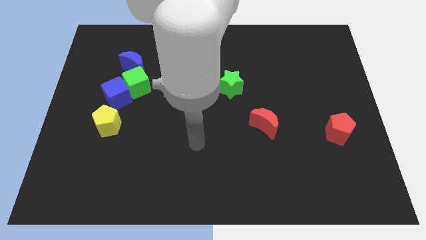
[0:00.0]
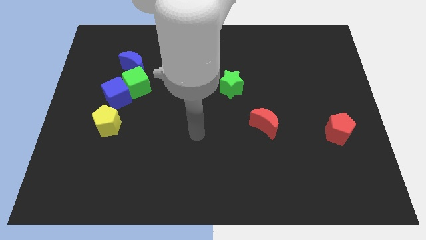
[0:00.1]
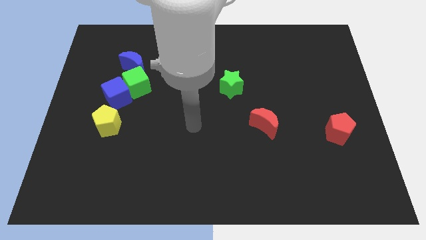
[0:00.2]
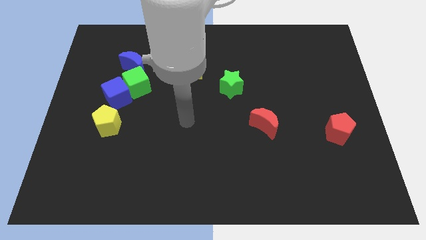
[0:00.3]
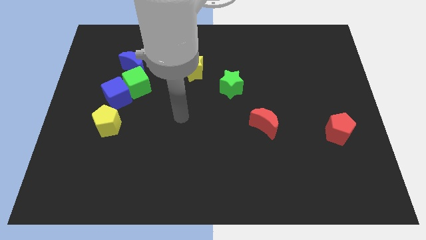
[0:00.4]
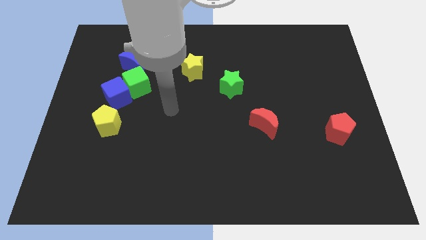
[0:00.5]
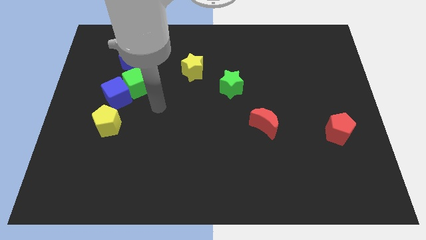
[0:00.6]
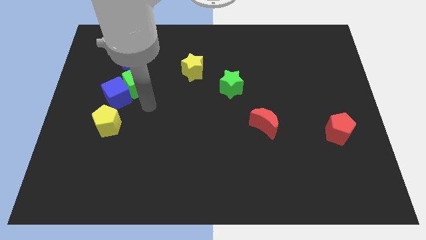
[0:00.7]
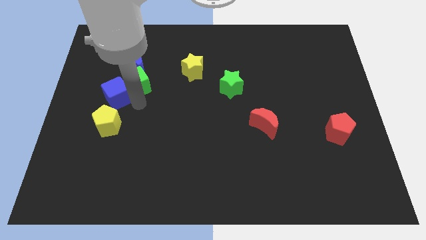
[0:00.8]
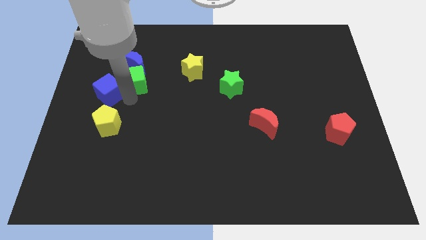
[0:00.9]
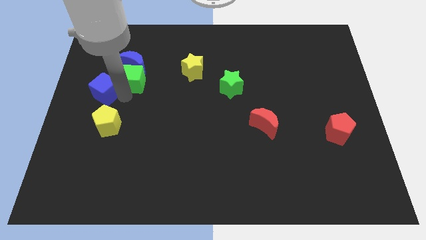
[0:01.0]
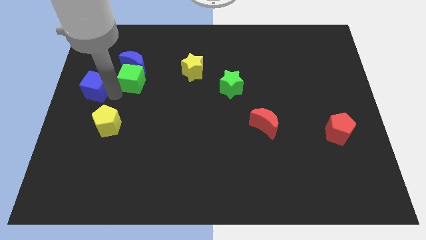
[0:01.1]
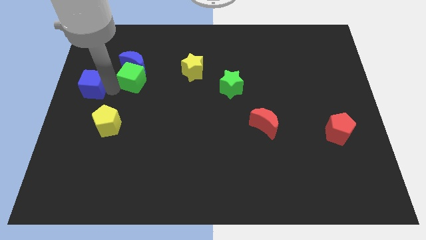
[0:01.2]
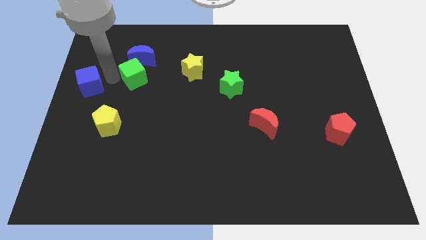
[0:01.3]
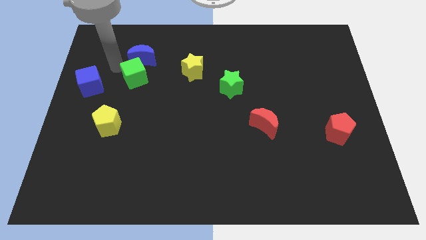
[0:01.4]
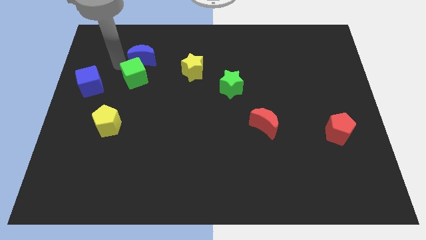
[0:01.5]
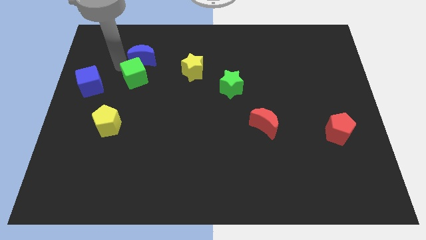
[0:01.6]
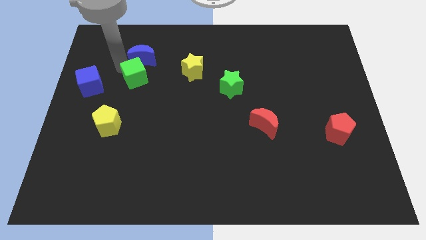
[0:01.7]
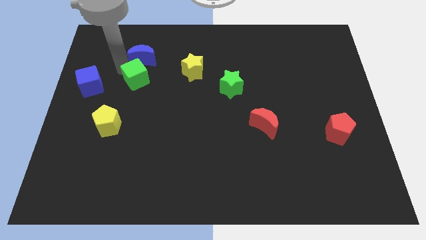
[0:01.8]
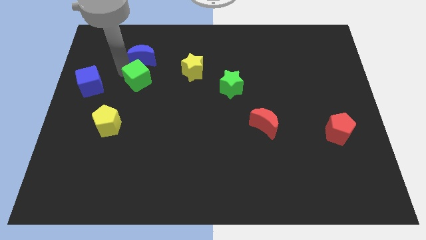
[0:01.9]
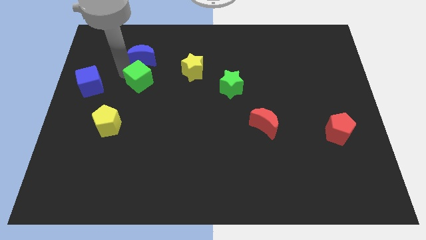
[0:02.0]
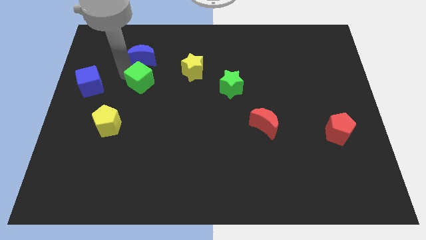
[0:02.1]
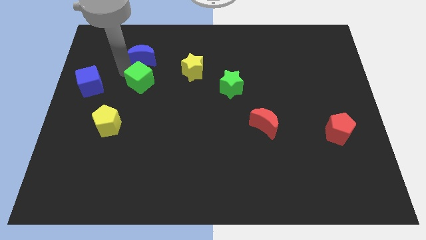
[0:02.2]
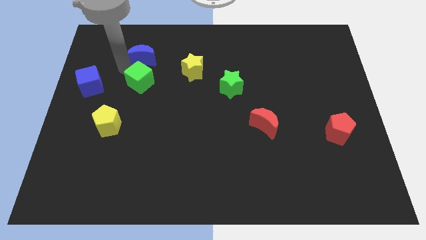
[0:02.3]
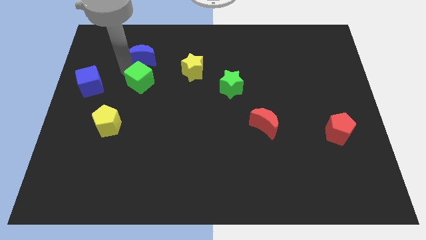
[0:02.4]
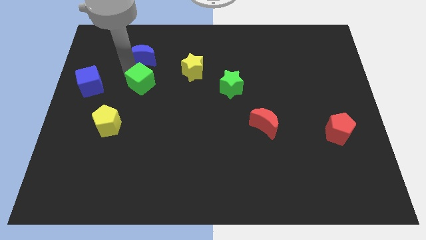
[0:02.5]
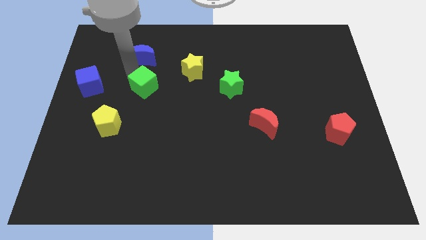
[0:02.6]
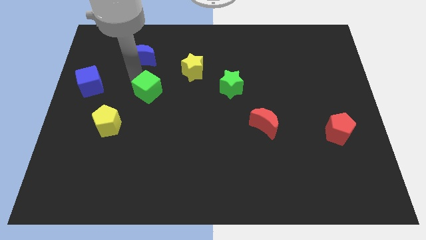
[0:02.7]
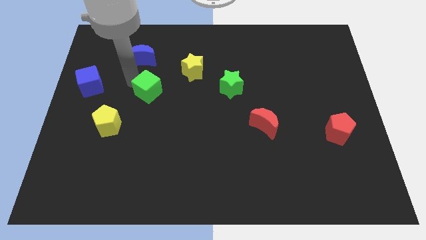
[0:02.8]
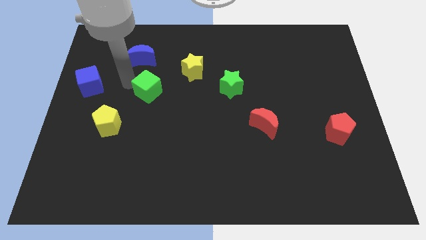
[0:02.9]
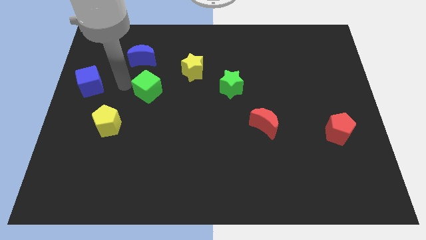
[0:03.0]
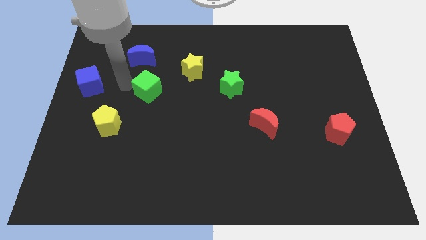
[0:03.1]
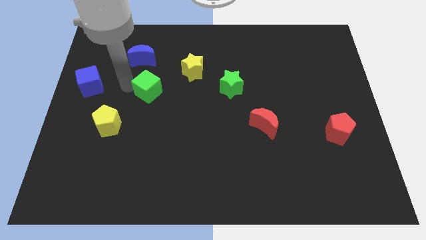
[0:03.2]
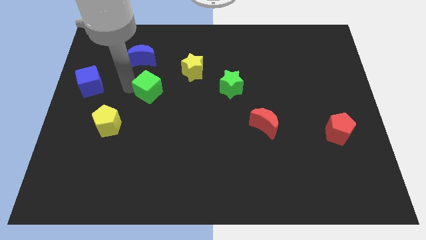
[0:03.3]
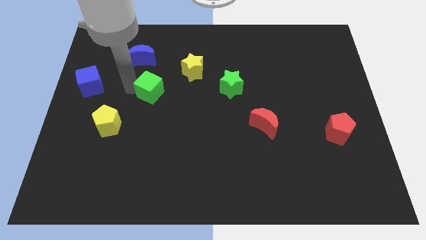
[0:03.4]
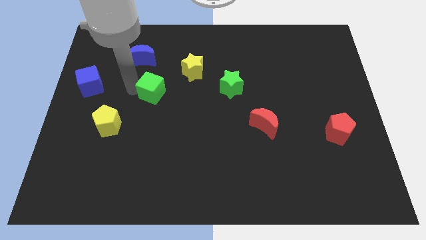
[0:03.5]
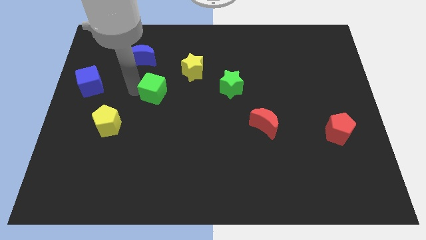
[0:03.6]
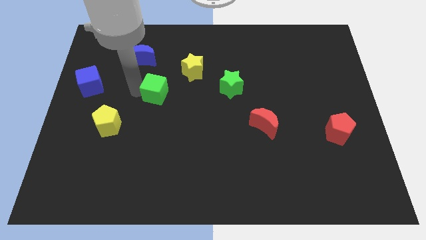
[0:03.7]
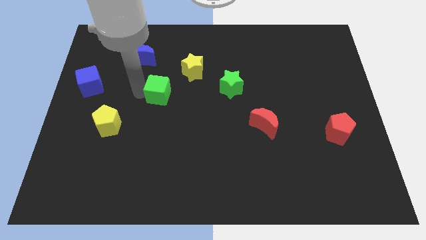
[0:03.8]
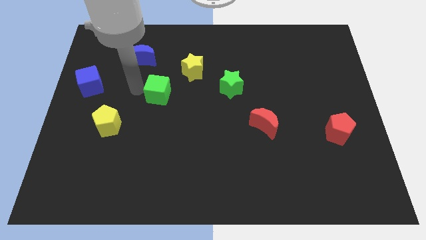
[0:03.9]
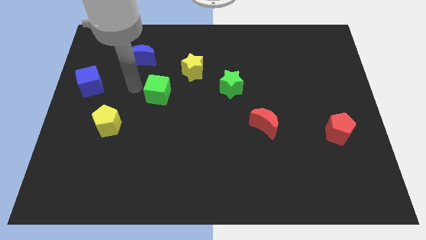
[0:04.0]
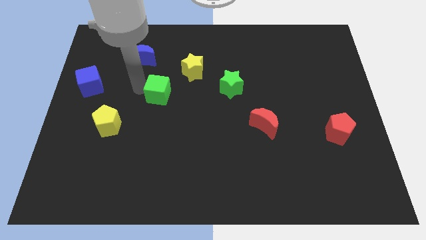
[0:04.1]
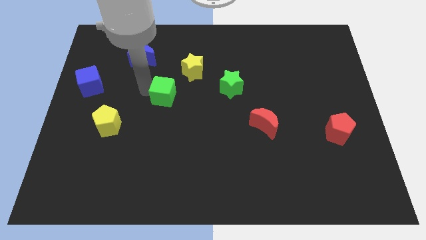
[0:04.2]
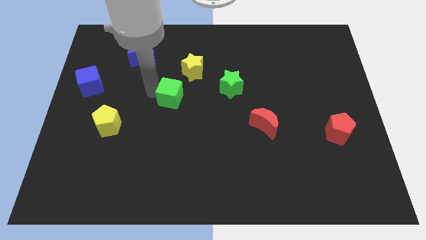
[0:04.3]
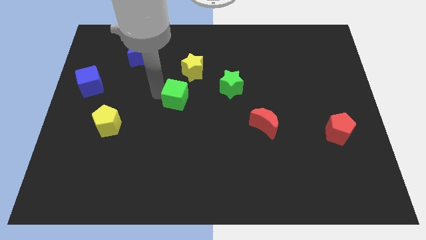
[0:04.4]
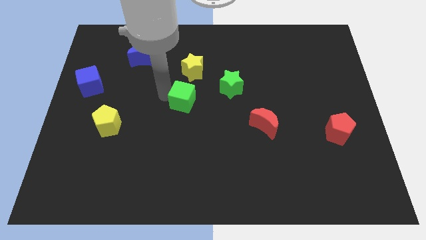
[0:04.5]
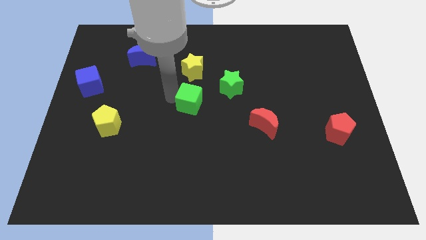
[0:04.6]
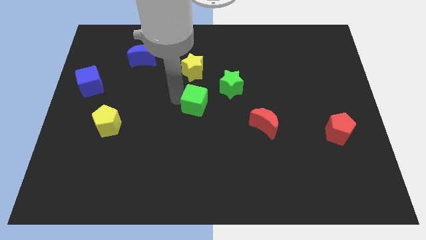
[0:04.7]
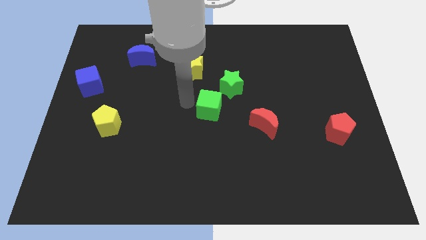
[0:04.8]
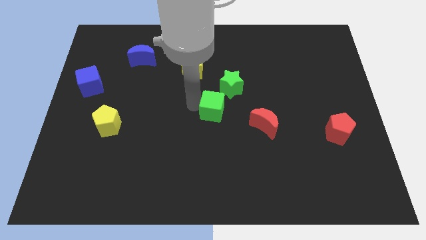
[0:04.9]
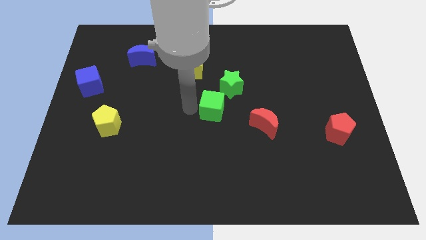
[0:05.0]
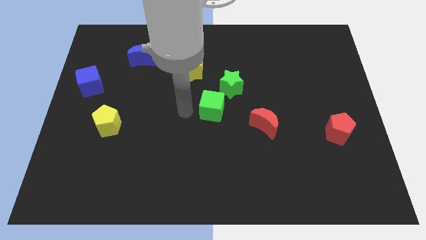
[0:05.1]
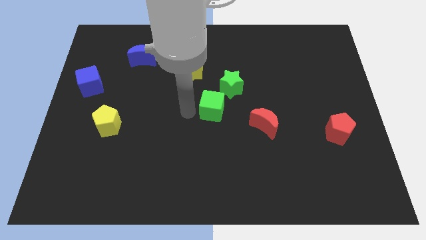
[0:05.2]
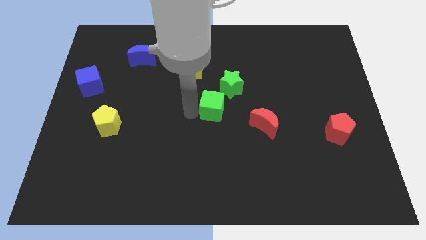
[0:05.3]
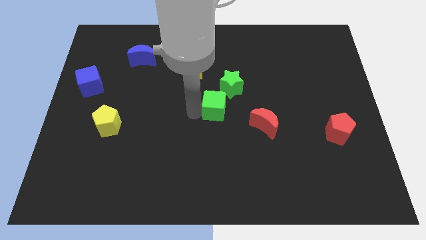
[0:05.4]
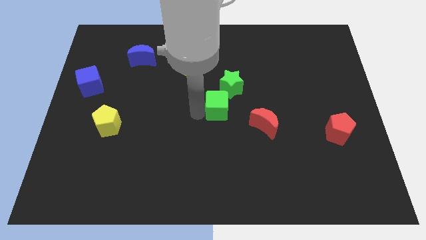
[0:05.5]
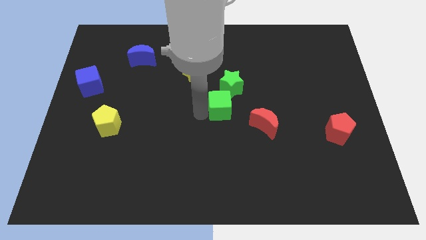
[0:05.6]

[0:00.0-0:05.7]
push the green cube to the top left of the red moon

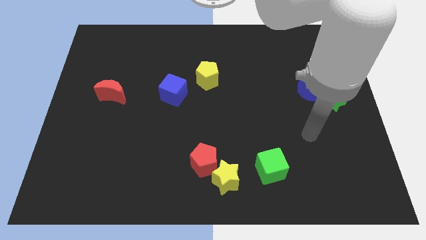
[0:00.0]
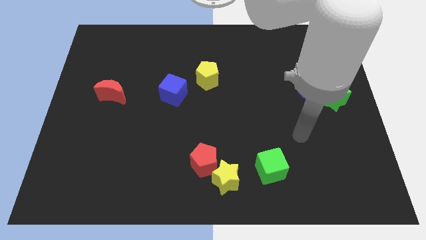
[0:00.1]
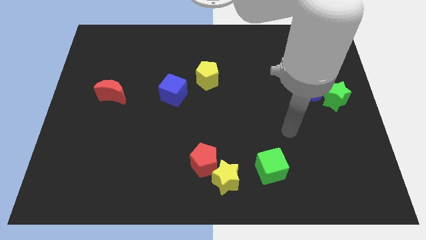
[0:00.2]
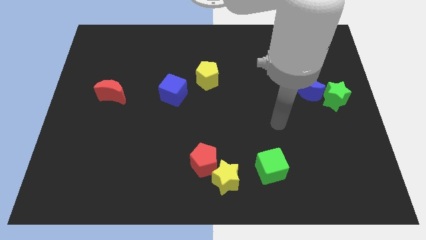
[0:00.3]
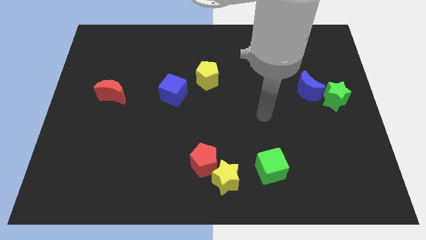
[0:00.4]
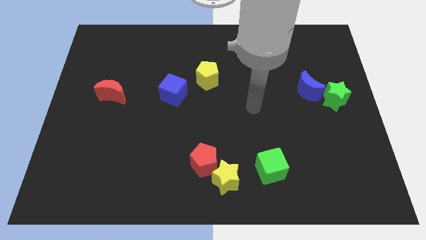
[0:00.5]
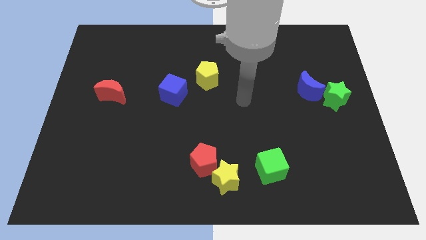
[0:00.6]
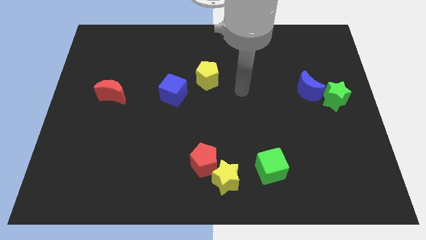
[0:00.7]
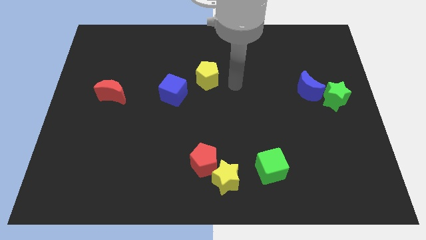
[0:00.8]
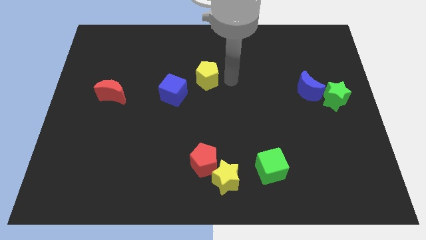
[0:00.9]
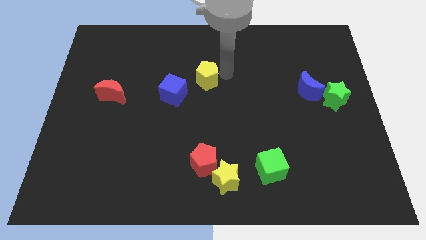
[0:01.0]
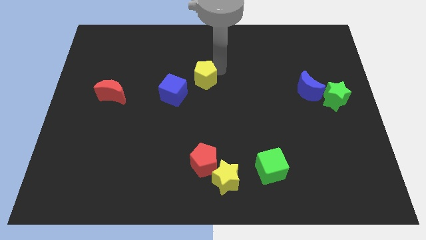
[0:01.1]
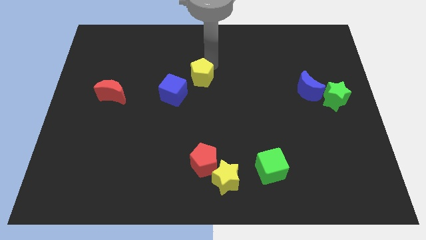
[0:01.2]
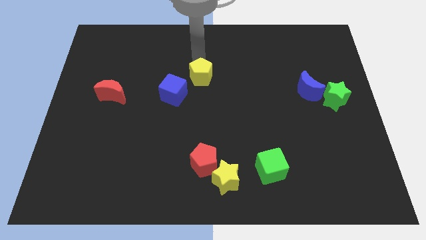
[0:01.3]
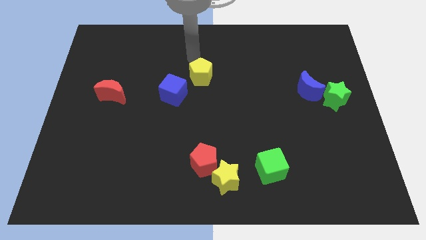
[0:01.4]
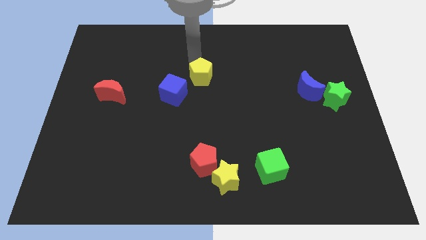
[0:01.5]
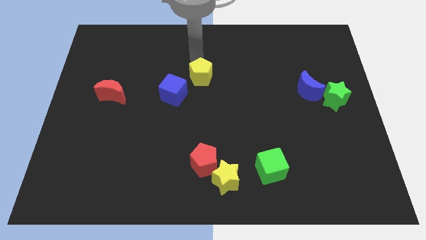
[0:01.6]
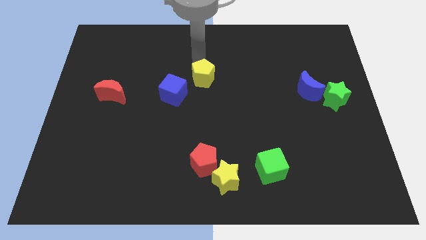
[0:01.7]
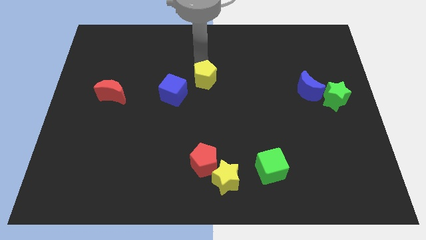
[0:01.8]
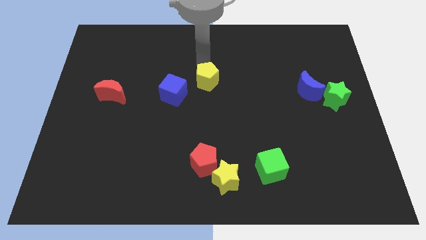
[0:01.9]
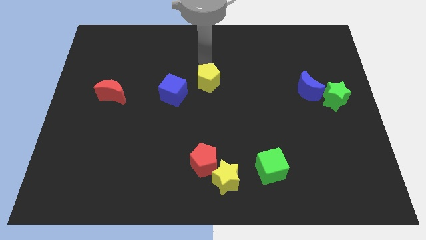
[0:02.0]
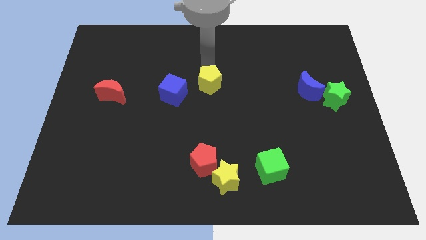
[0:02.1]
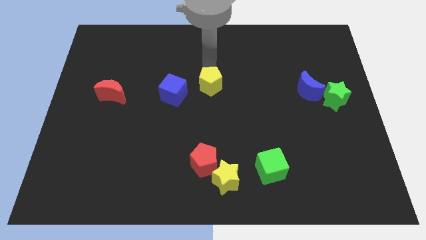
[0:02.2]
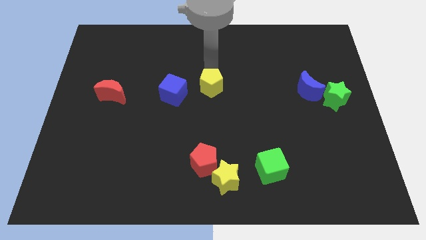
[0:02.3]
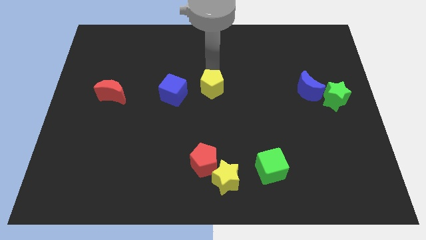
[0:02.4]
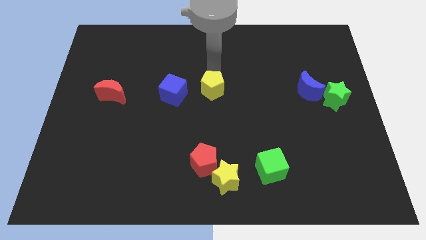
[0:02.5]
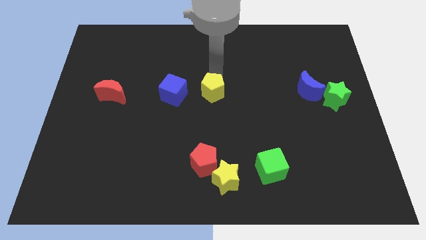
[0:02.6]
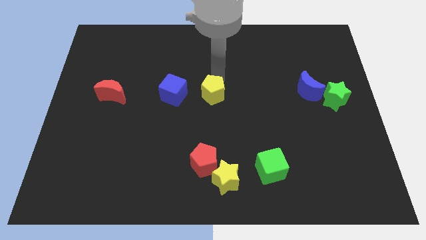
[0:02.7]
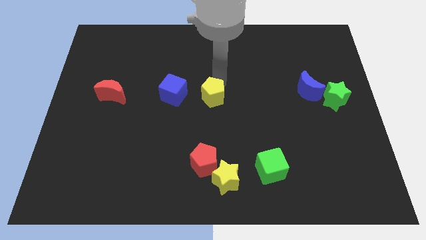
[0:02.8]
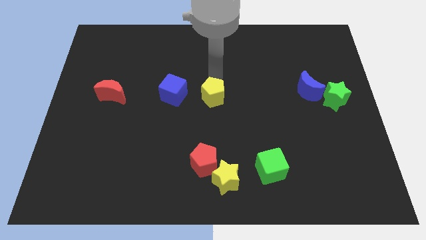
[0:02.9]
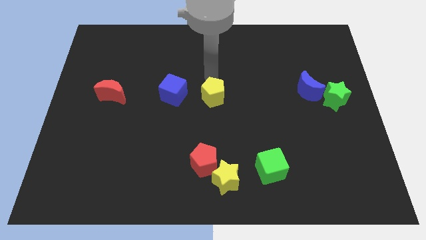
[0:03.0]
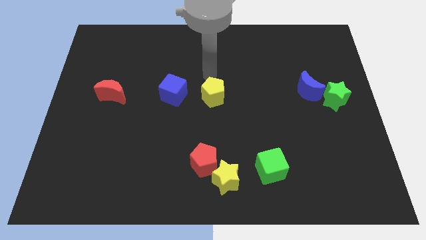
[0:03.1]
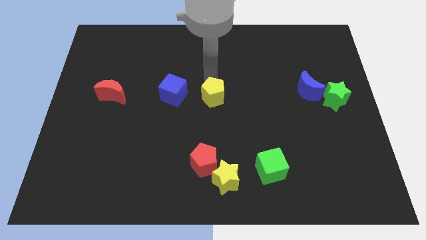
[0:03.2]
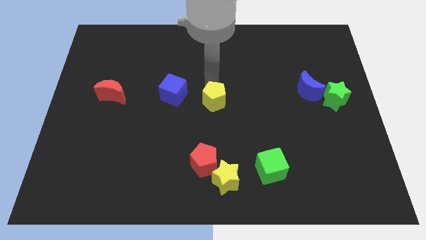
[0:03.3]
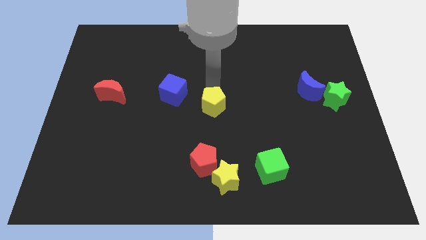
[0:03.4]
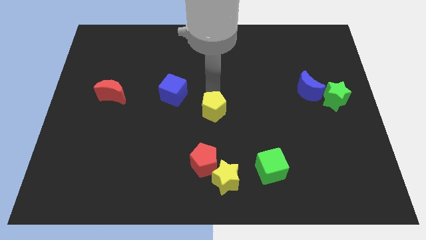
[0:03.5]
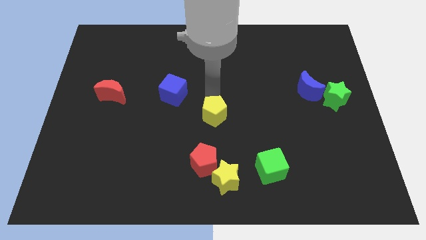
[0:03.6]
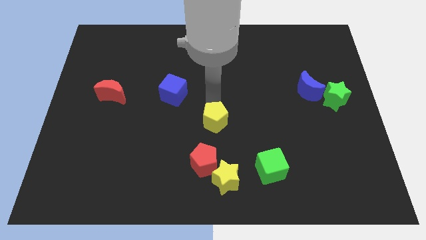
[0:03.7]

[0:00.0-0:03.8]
slide the yellow pentagon to the top of the yellow star
